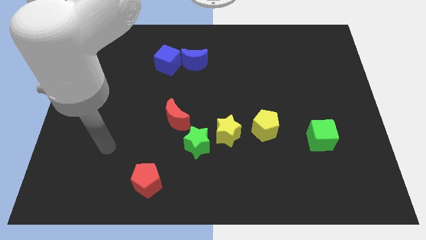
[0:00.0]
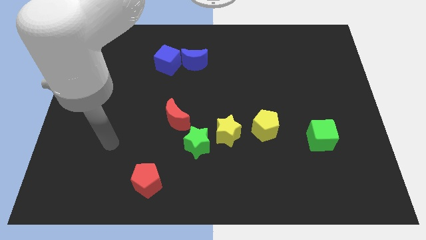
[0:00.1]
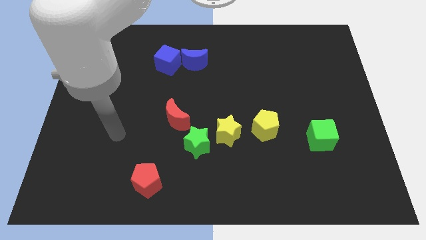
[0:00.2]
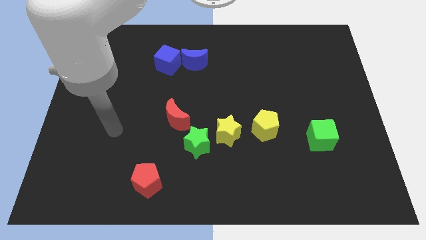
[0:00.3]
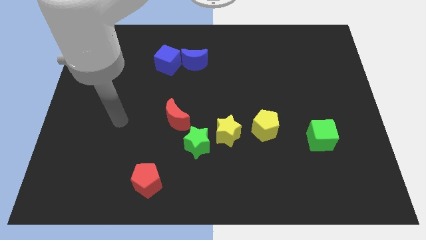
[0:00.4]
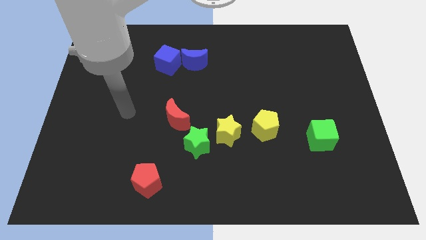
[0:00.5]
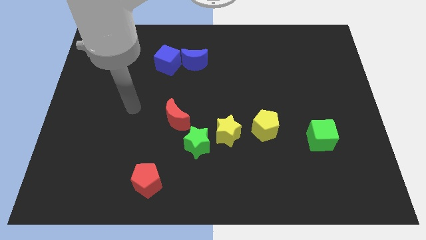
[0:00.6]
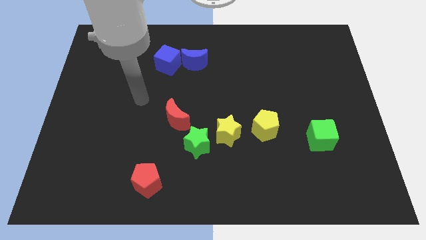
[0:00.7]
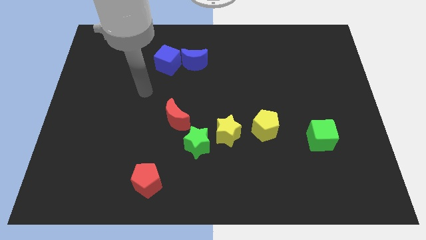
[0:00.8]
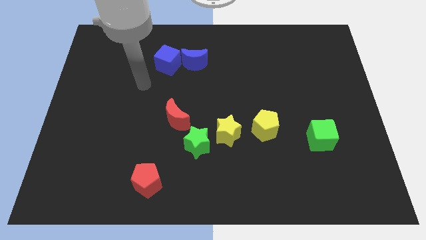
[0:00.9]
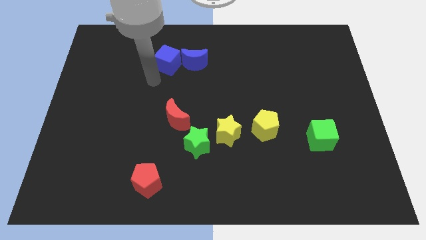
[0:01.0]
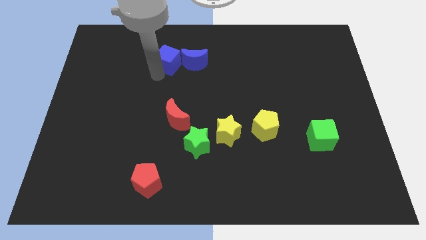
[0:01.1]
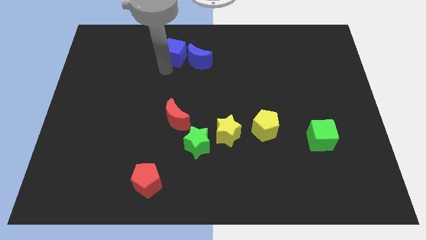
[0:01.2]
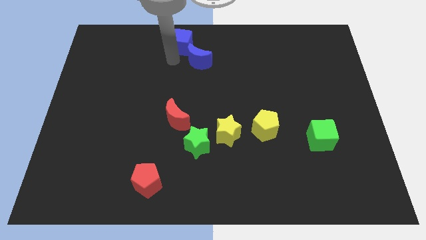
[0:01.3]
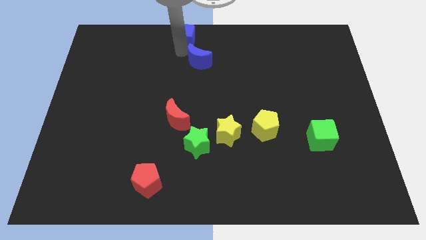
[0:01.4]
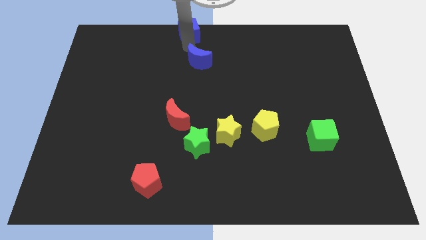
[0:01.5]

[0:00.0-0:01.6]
move the blue moon away from the blue cube

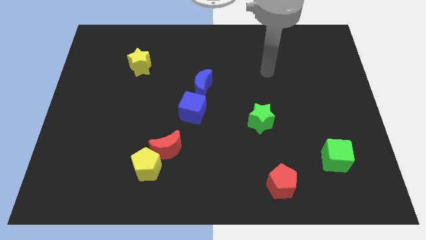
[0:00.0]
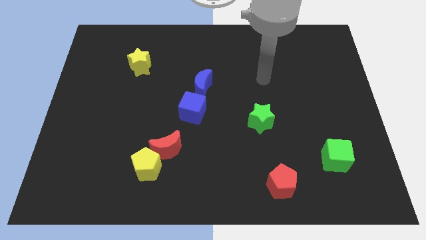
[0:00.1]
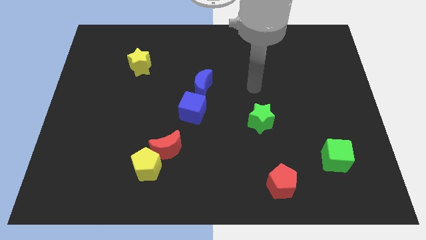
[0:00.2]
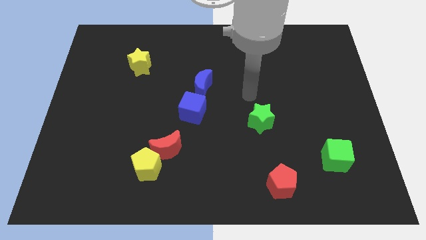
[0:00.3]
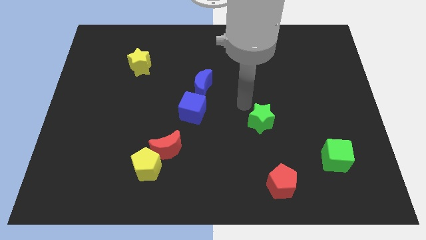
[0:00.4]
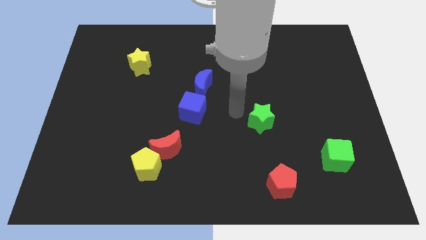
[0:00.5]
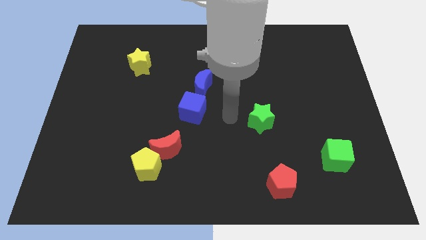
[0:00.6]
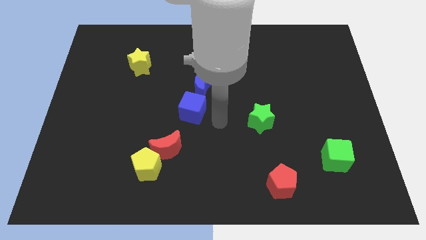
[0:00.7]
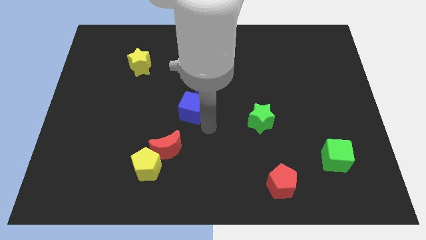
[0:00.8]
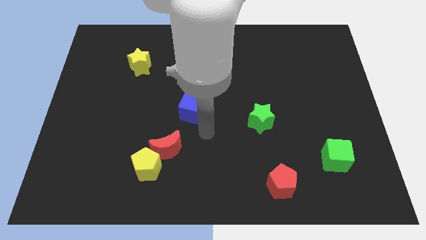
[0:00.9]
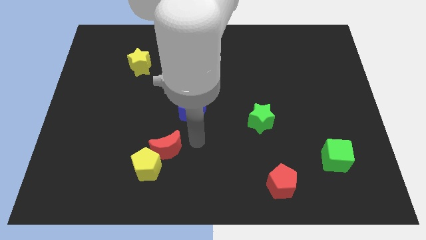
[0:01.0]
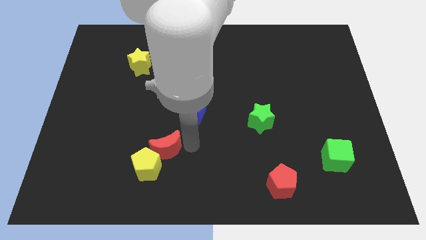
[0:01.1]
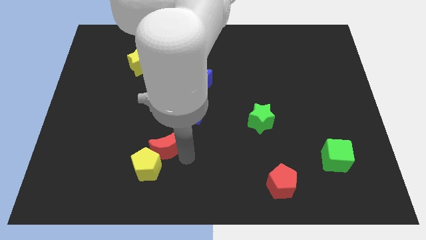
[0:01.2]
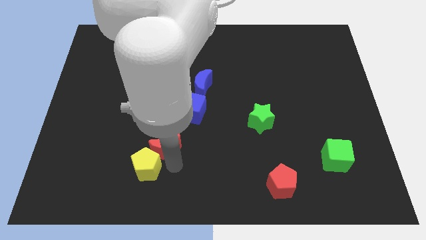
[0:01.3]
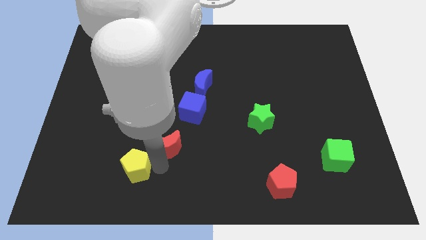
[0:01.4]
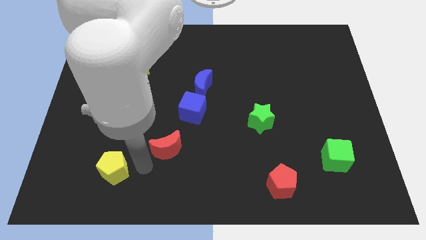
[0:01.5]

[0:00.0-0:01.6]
separate the red moon from the yellow pentagon

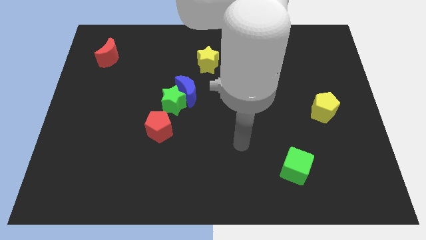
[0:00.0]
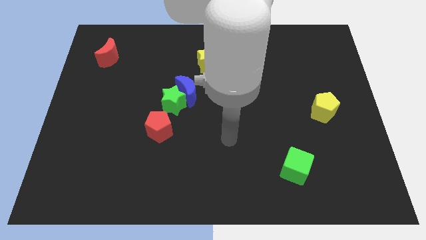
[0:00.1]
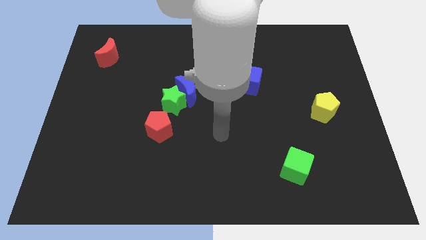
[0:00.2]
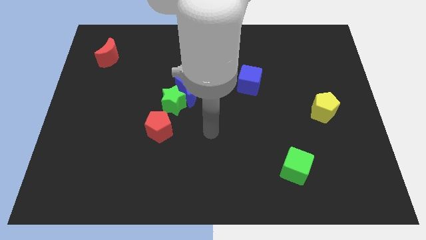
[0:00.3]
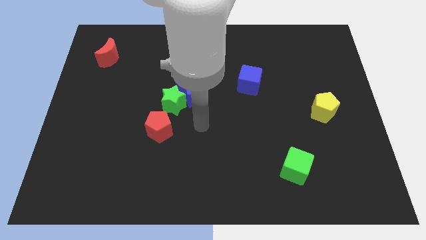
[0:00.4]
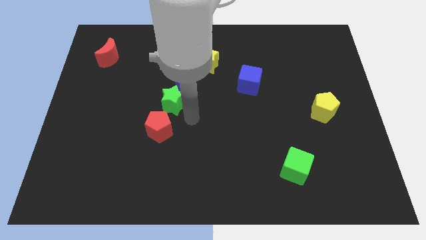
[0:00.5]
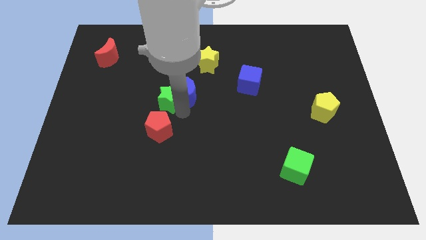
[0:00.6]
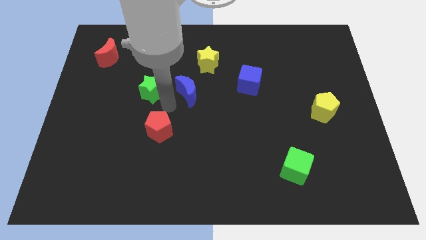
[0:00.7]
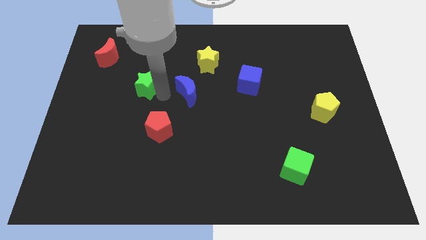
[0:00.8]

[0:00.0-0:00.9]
move the blue moon away from the green star

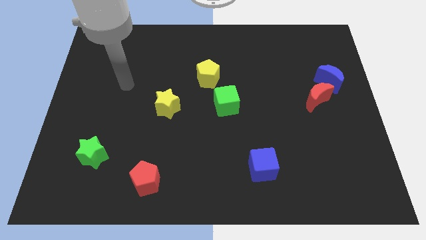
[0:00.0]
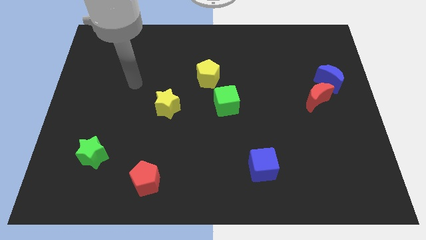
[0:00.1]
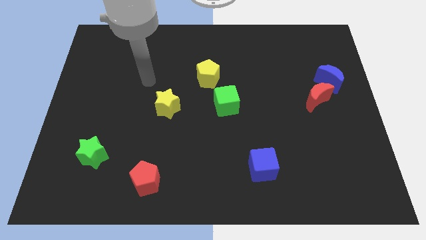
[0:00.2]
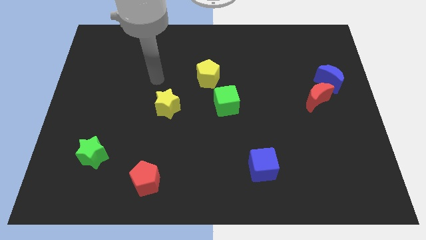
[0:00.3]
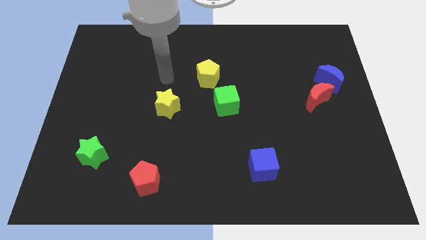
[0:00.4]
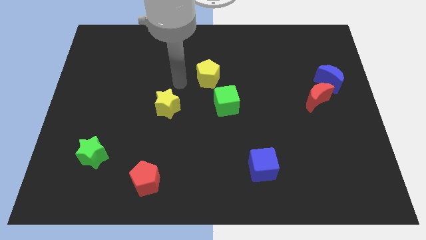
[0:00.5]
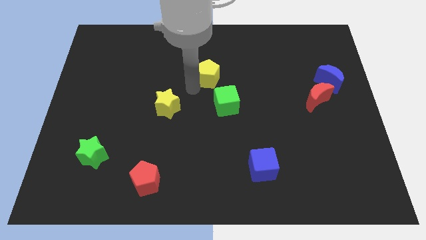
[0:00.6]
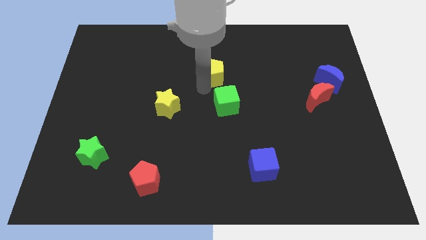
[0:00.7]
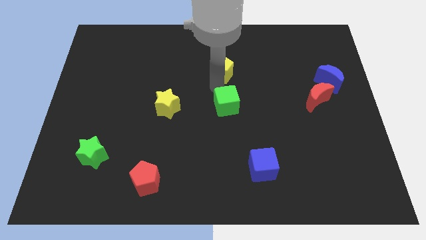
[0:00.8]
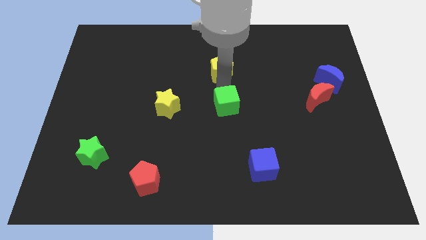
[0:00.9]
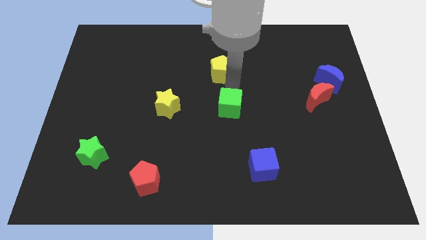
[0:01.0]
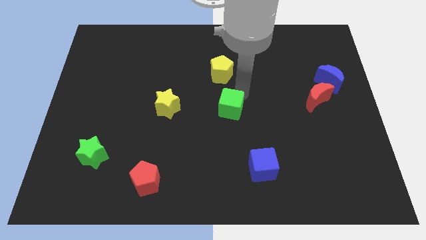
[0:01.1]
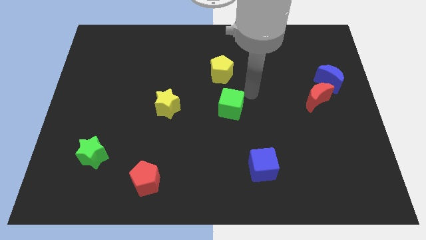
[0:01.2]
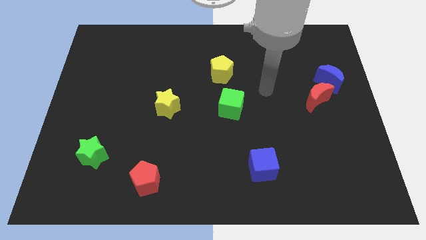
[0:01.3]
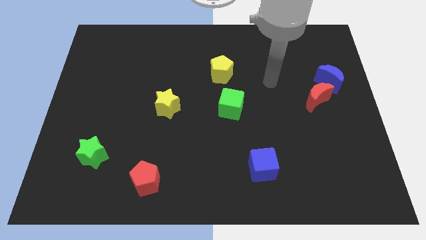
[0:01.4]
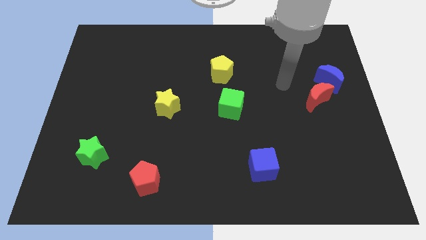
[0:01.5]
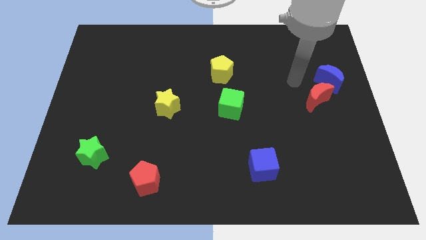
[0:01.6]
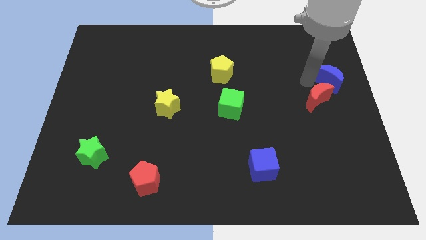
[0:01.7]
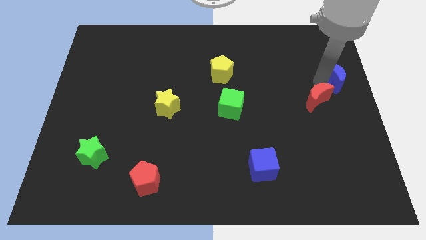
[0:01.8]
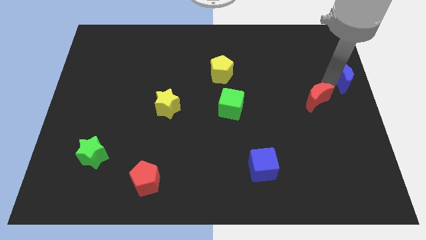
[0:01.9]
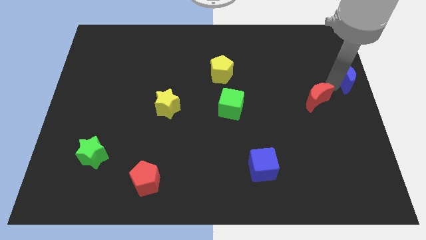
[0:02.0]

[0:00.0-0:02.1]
pull the red moon apart from the blue moon

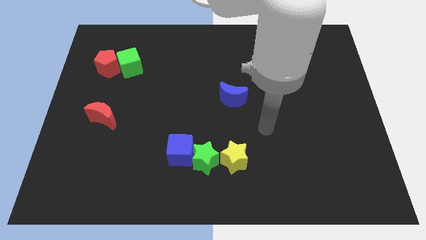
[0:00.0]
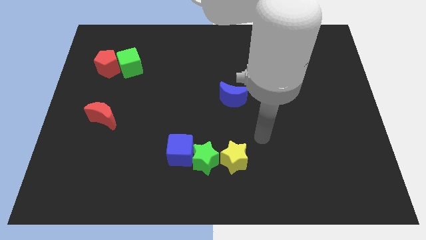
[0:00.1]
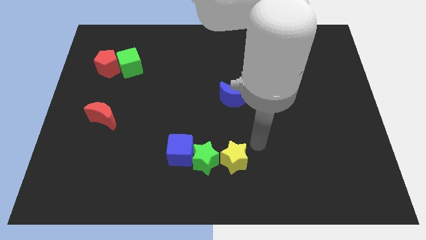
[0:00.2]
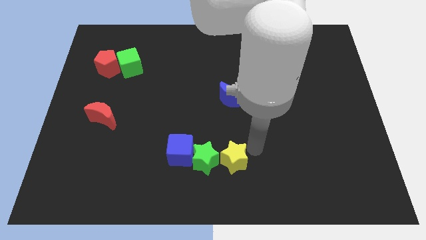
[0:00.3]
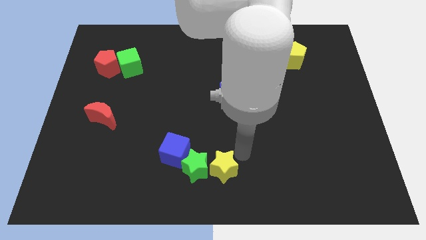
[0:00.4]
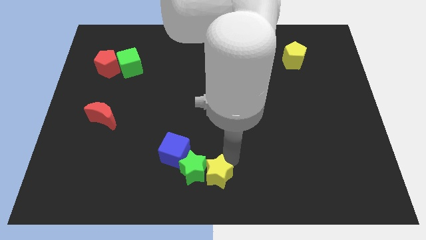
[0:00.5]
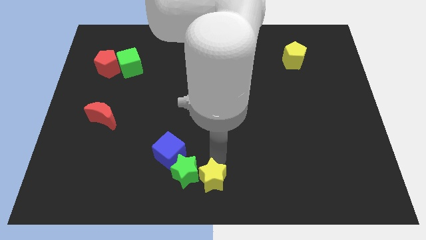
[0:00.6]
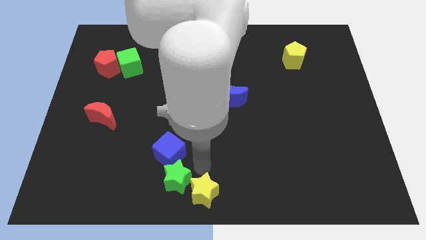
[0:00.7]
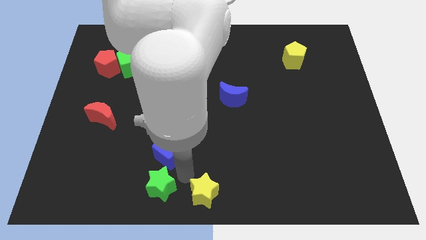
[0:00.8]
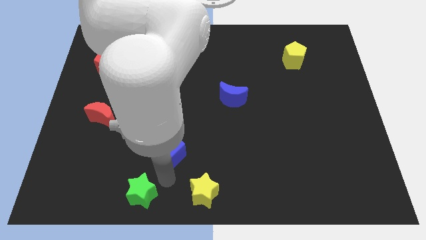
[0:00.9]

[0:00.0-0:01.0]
separate the blue cube from the green star

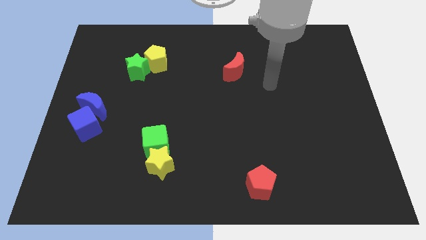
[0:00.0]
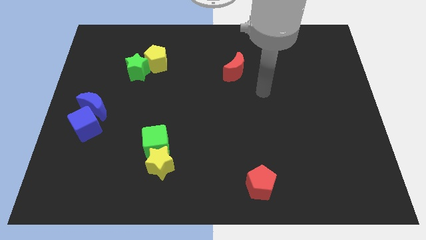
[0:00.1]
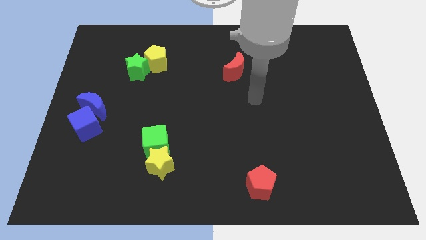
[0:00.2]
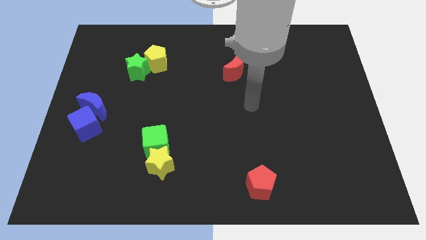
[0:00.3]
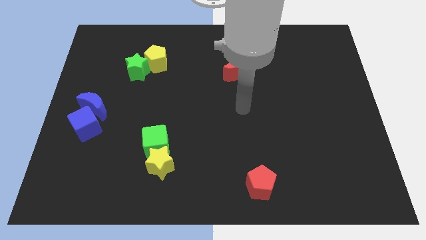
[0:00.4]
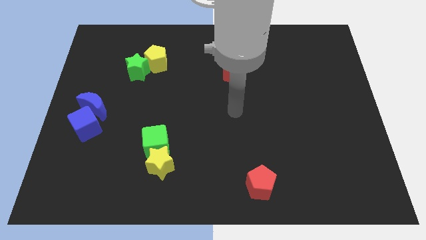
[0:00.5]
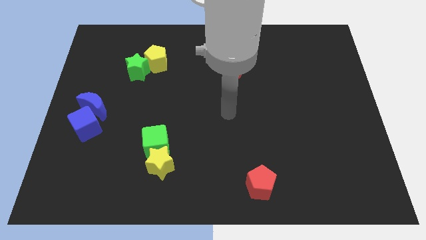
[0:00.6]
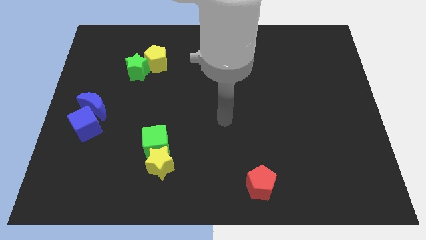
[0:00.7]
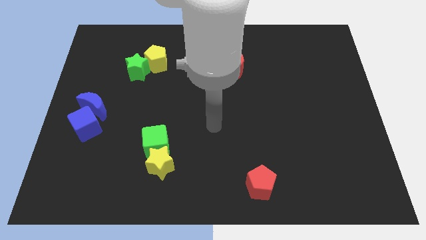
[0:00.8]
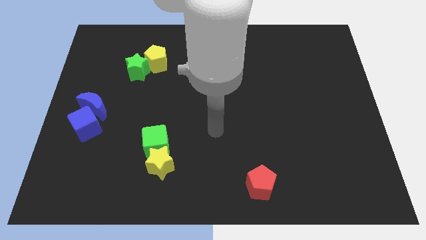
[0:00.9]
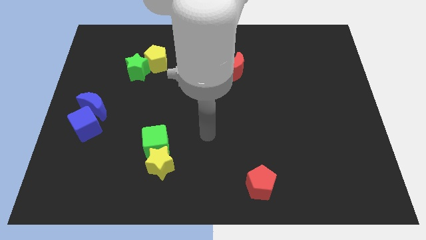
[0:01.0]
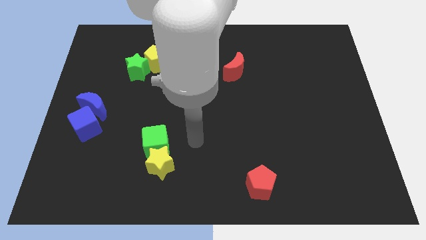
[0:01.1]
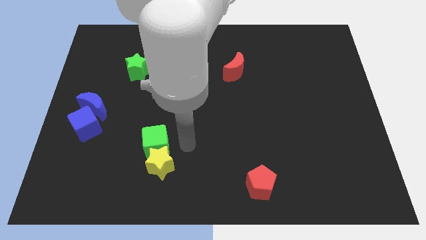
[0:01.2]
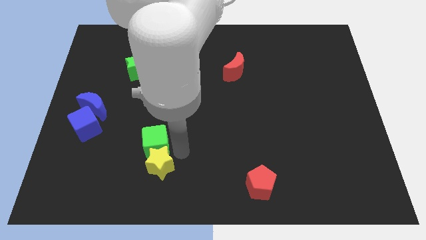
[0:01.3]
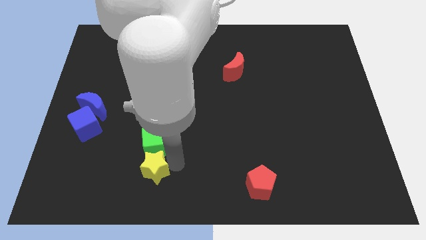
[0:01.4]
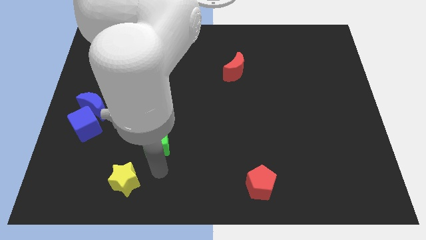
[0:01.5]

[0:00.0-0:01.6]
move the green cube away from the yellow star

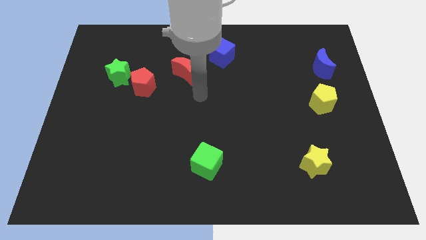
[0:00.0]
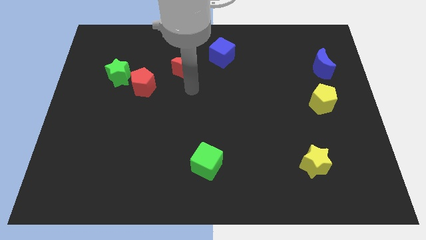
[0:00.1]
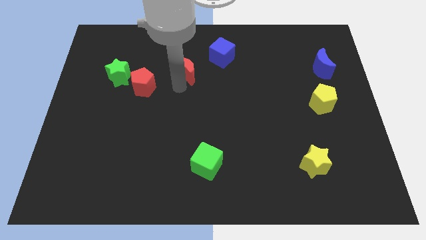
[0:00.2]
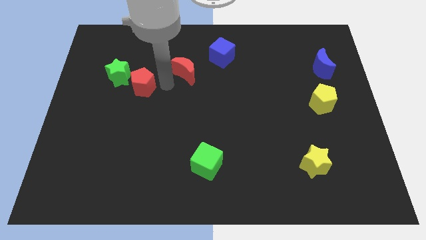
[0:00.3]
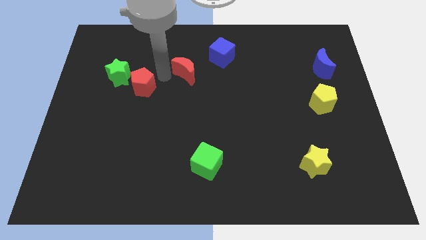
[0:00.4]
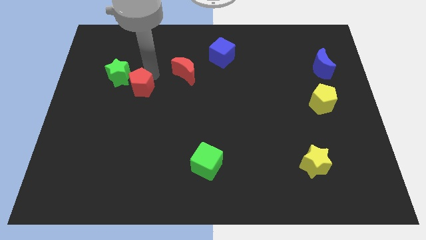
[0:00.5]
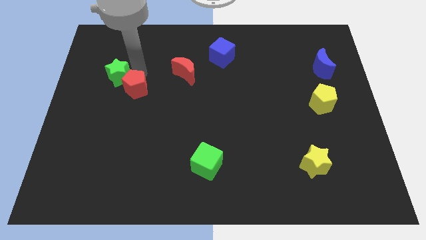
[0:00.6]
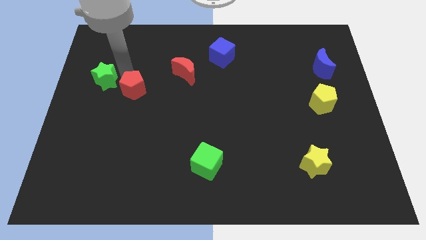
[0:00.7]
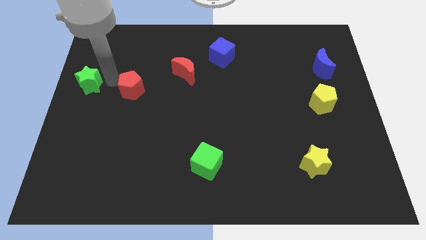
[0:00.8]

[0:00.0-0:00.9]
move the red pentagon away from the green star
